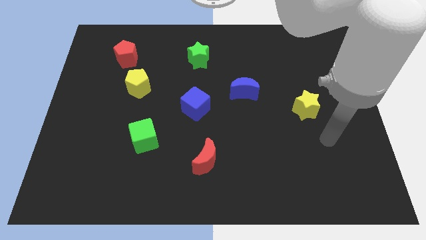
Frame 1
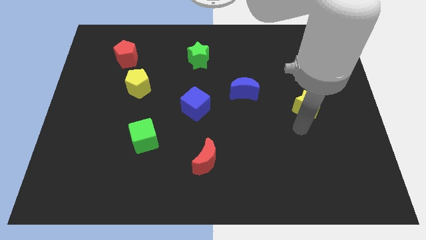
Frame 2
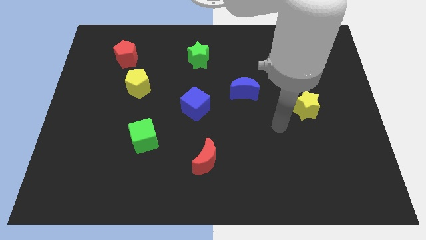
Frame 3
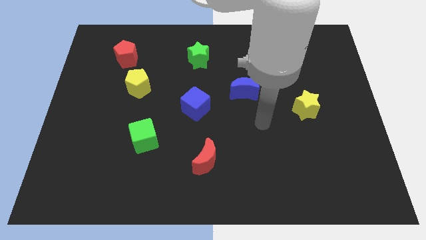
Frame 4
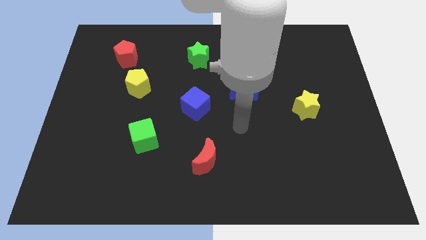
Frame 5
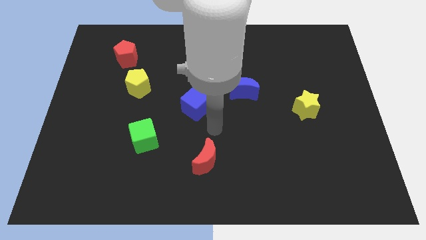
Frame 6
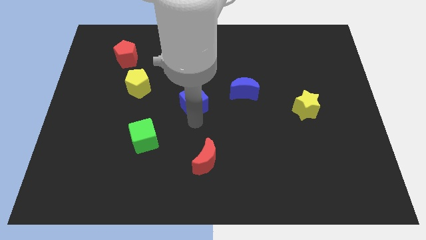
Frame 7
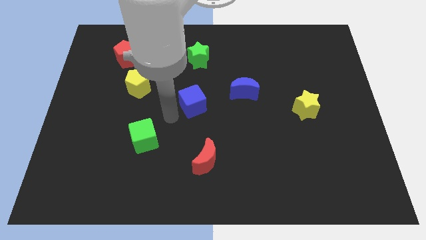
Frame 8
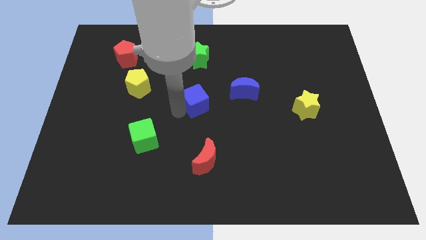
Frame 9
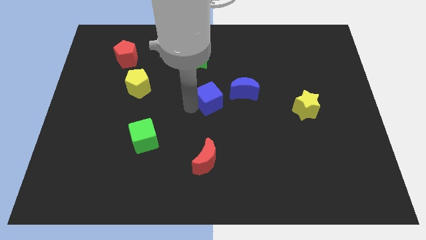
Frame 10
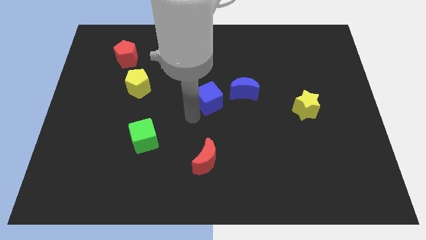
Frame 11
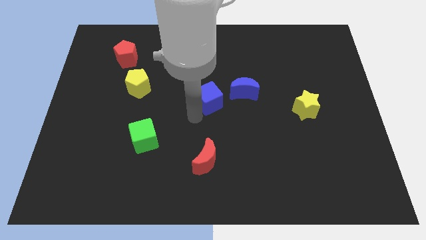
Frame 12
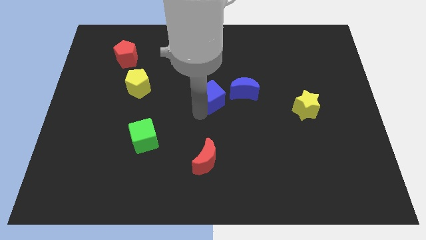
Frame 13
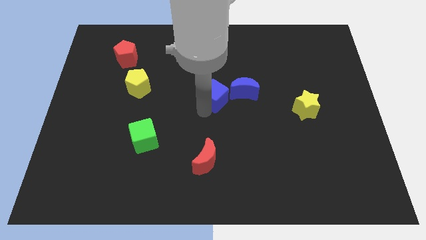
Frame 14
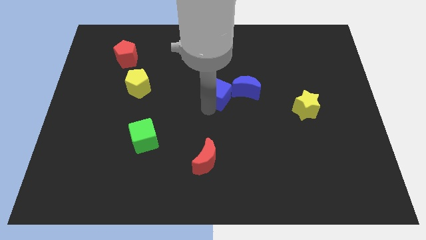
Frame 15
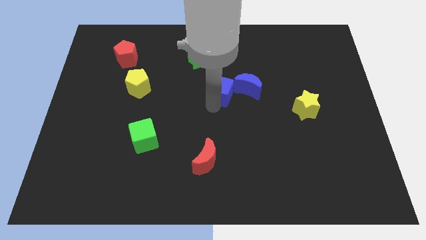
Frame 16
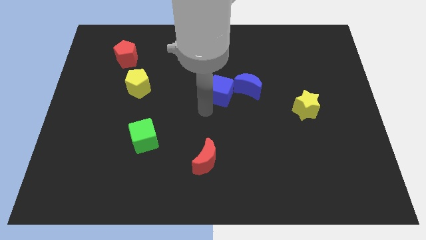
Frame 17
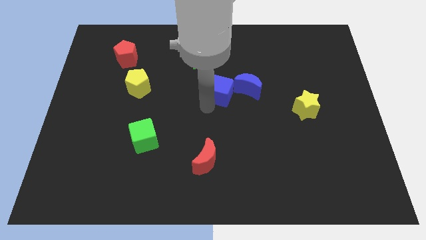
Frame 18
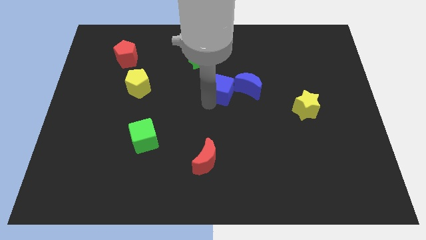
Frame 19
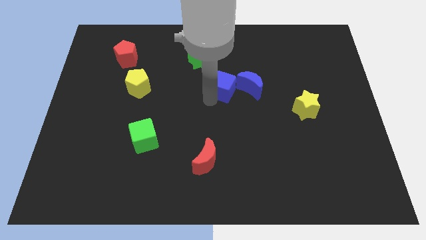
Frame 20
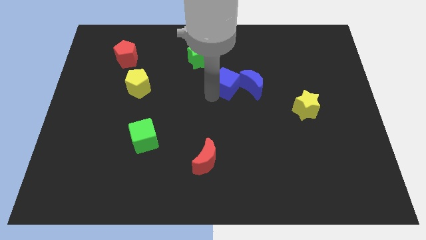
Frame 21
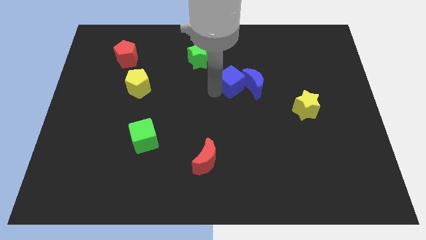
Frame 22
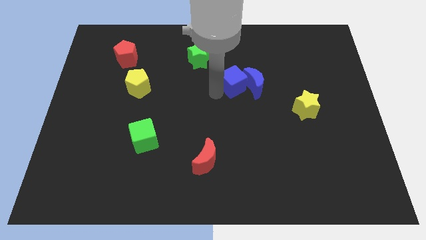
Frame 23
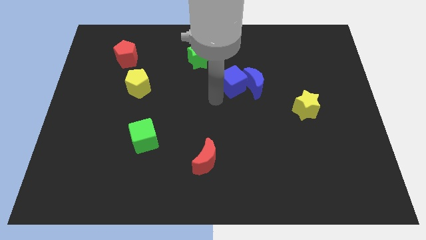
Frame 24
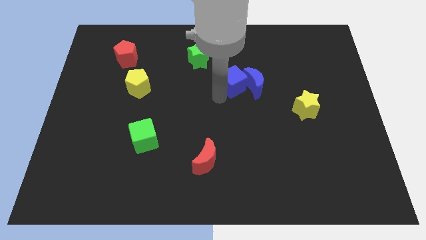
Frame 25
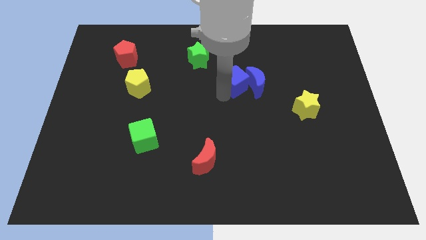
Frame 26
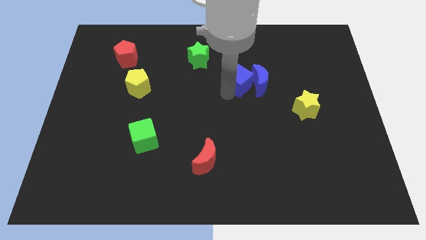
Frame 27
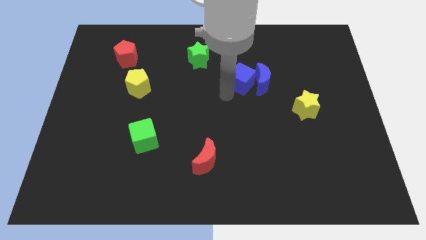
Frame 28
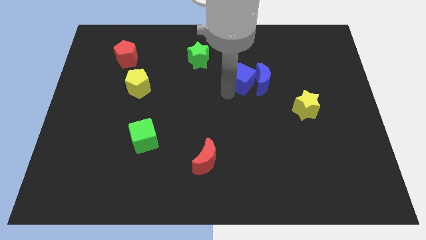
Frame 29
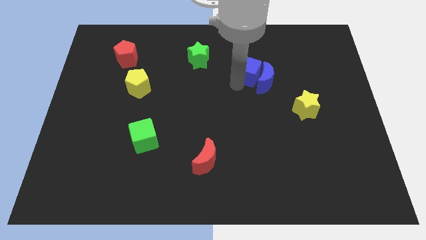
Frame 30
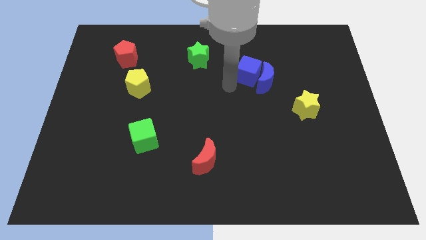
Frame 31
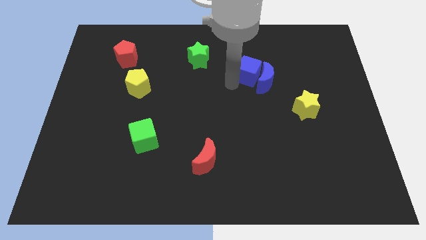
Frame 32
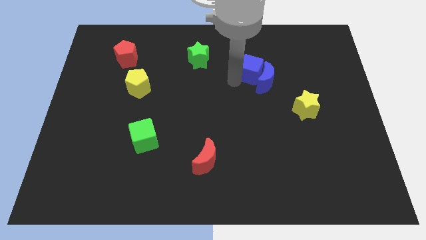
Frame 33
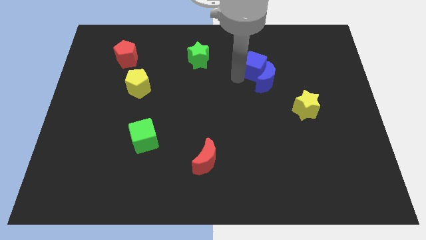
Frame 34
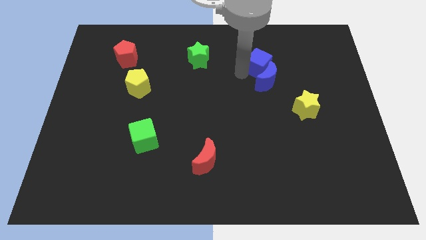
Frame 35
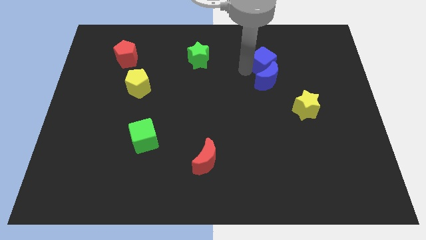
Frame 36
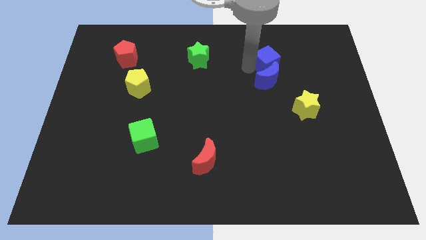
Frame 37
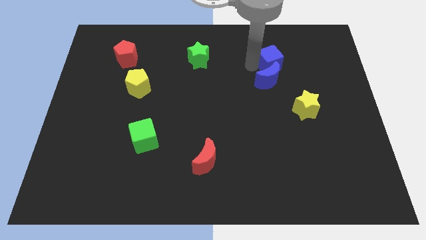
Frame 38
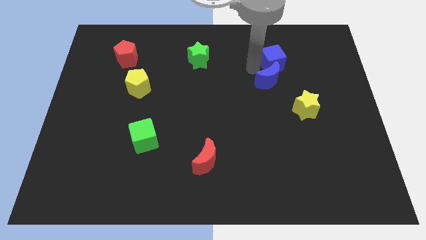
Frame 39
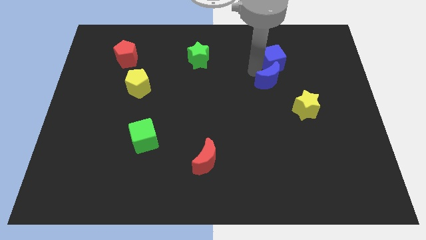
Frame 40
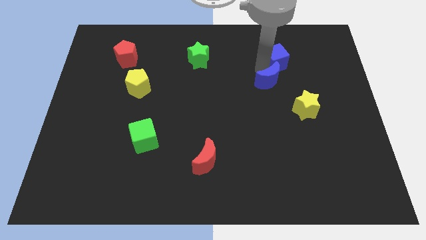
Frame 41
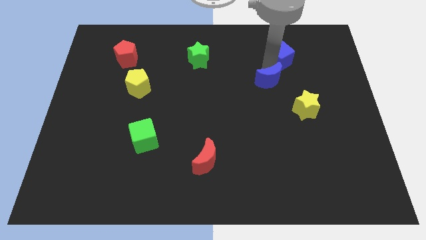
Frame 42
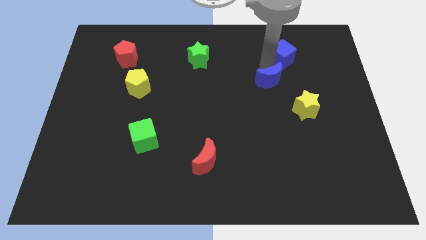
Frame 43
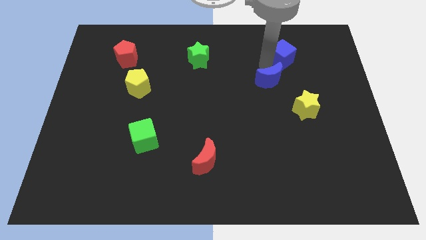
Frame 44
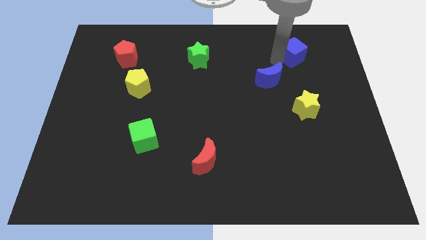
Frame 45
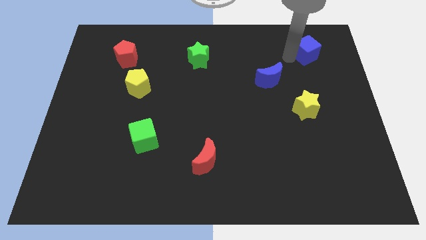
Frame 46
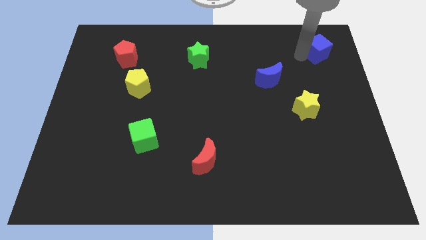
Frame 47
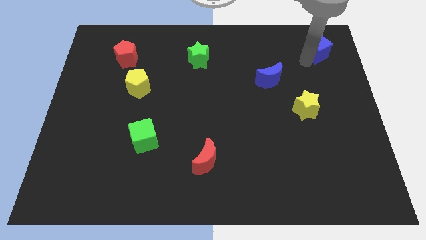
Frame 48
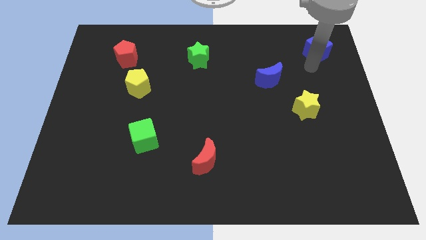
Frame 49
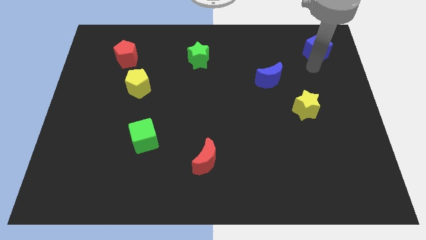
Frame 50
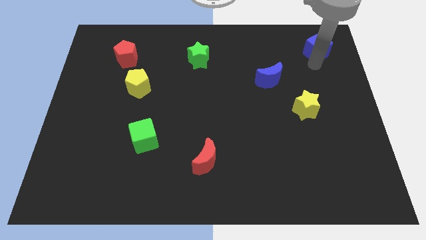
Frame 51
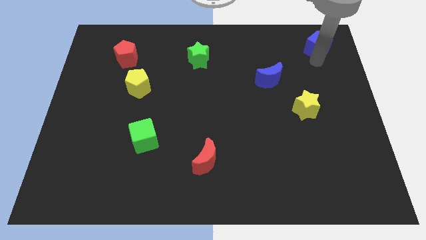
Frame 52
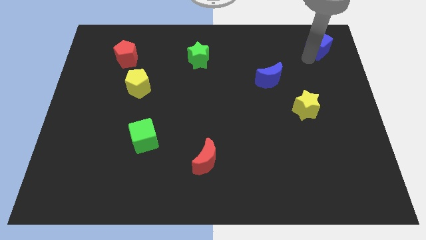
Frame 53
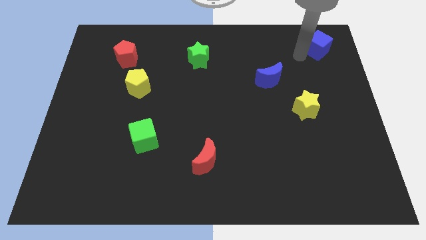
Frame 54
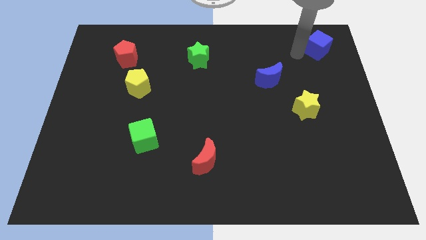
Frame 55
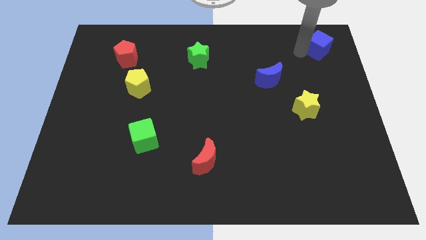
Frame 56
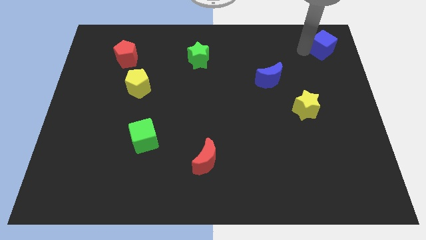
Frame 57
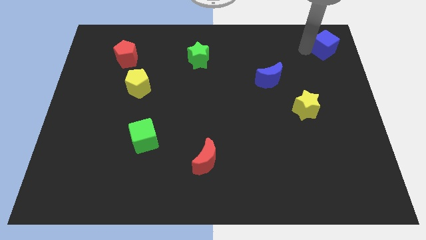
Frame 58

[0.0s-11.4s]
move the blue cube to the top right
